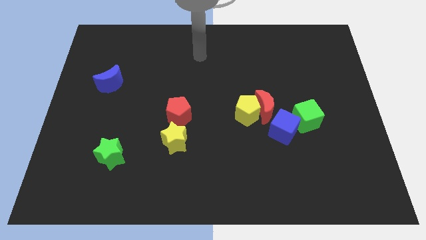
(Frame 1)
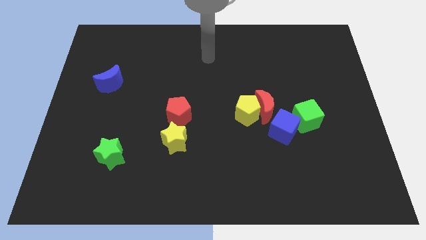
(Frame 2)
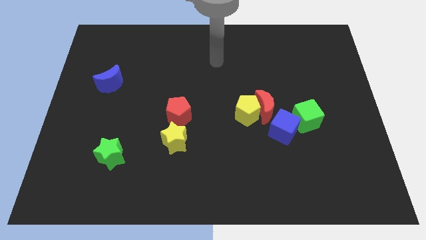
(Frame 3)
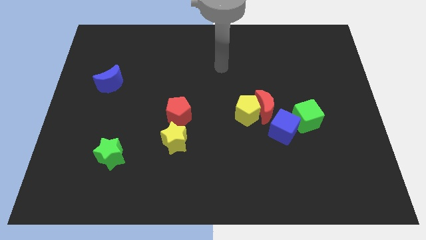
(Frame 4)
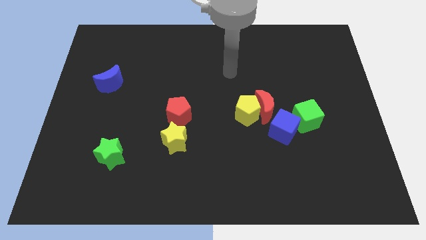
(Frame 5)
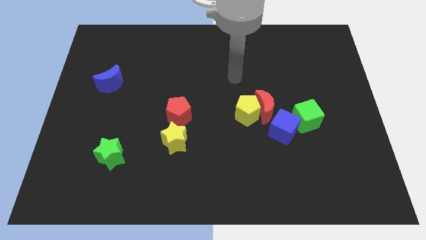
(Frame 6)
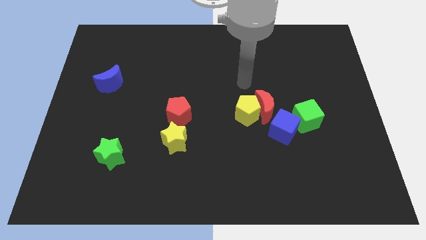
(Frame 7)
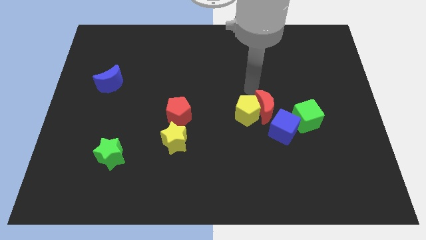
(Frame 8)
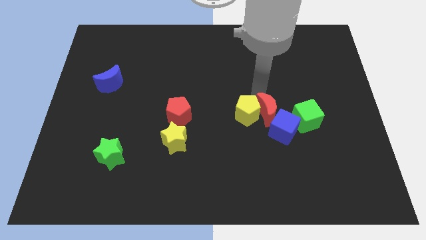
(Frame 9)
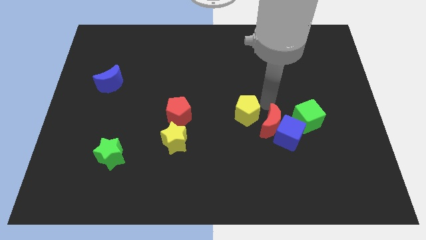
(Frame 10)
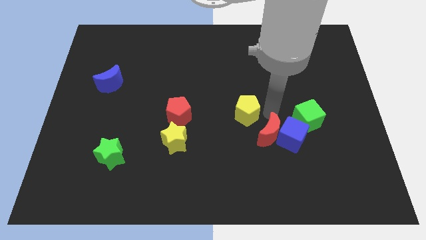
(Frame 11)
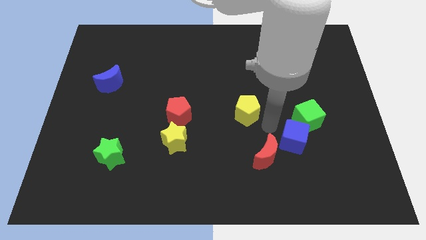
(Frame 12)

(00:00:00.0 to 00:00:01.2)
move the yellow pentagon away from the red moon and blue cube

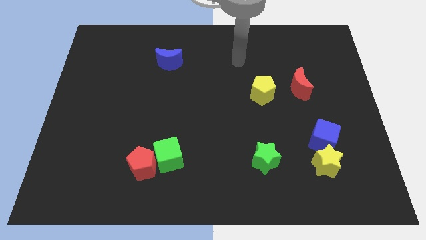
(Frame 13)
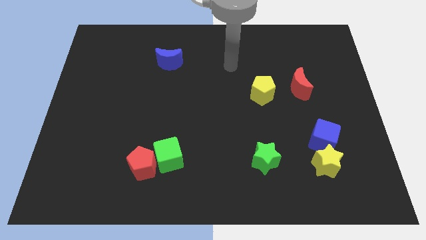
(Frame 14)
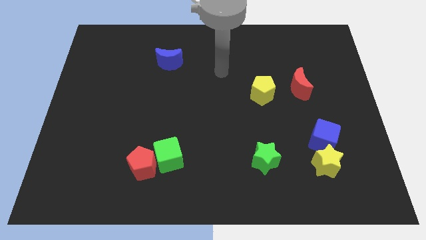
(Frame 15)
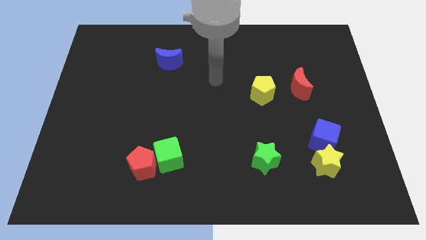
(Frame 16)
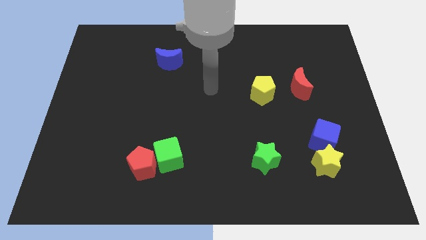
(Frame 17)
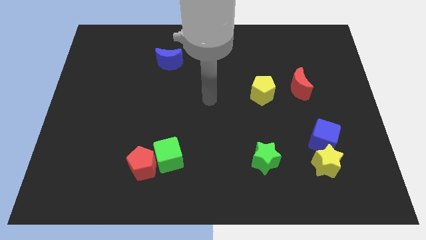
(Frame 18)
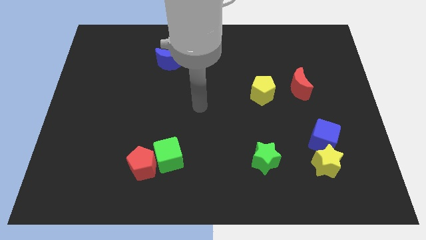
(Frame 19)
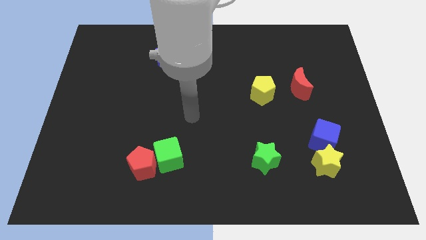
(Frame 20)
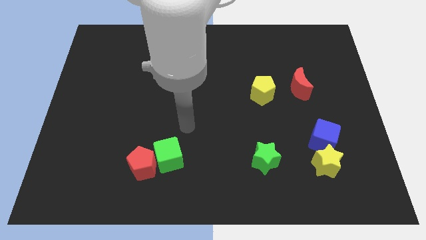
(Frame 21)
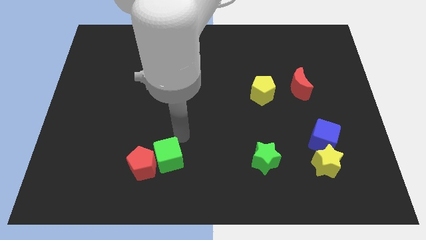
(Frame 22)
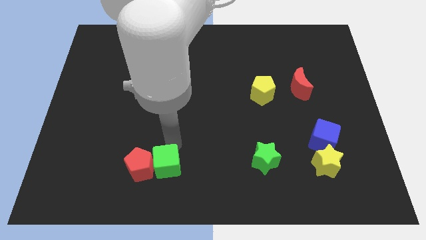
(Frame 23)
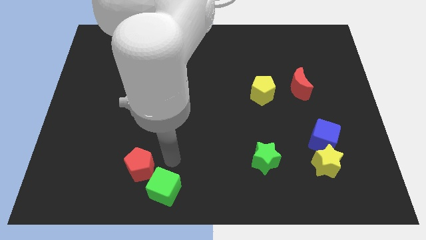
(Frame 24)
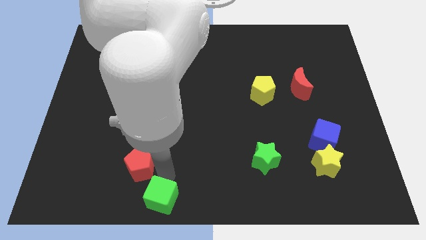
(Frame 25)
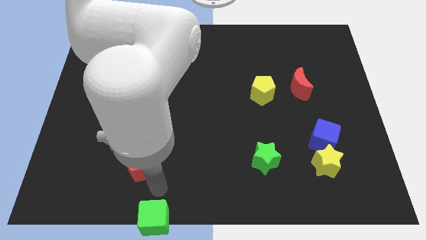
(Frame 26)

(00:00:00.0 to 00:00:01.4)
move the red pentagon away from the green cube

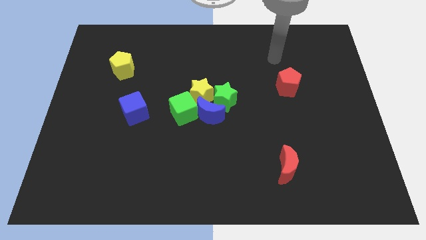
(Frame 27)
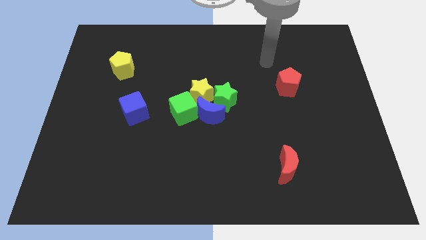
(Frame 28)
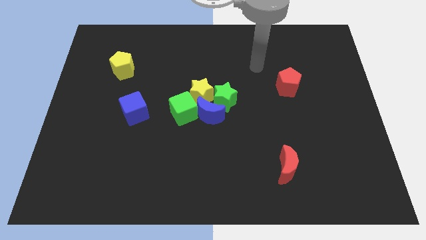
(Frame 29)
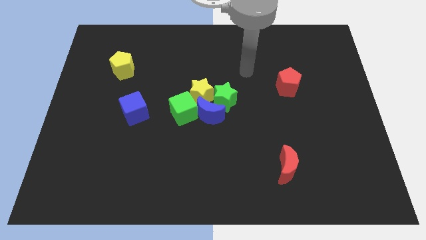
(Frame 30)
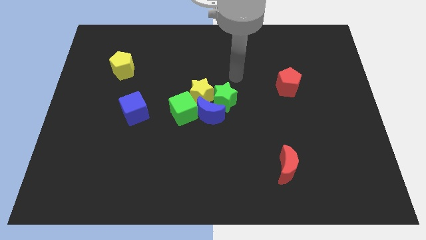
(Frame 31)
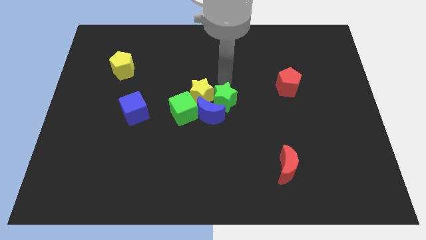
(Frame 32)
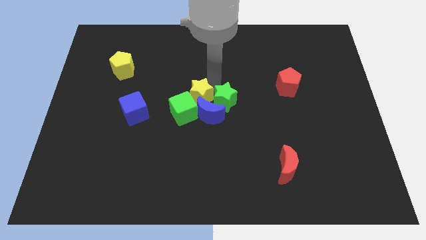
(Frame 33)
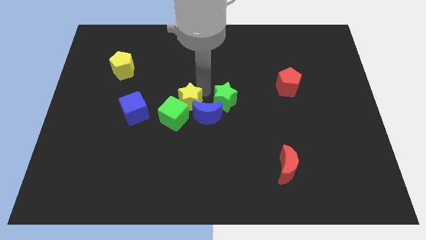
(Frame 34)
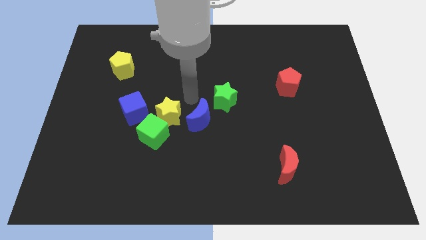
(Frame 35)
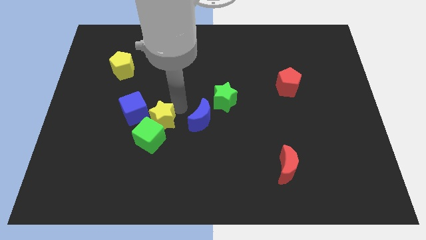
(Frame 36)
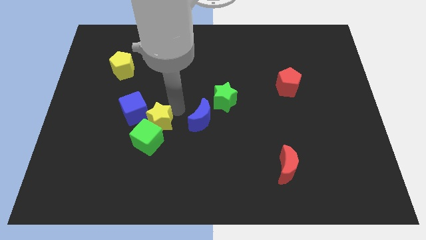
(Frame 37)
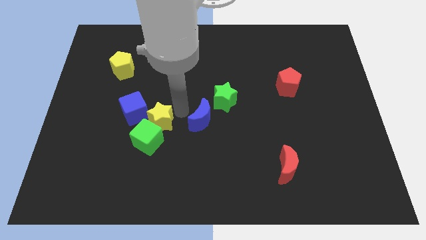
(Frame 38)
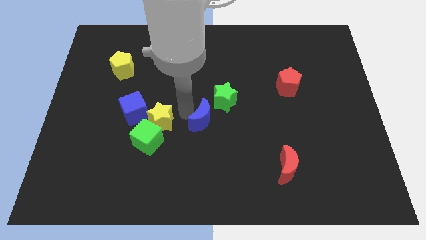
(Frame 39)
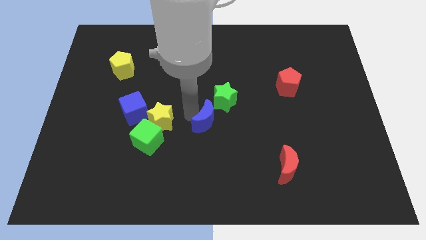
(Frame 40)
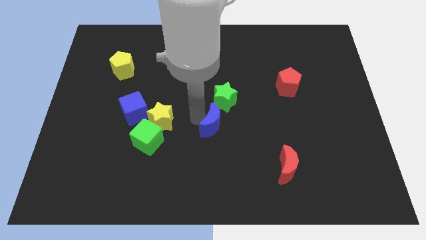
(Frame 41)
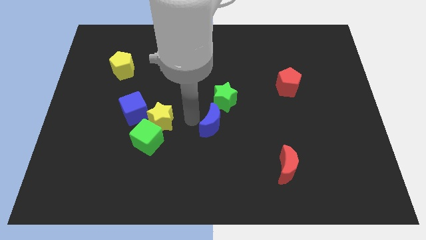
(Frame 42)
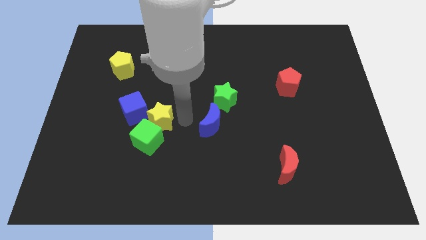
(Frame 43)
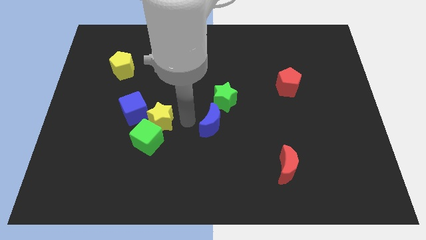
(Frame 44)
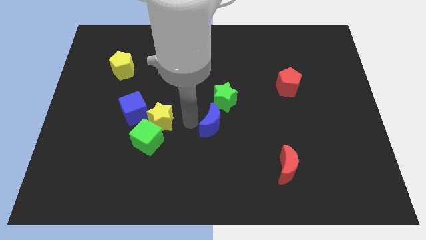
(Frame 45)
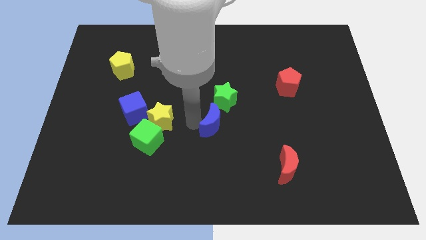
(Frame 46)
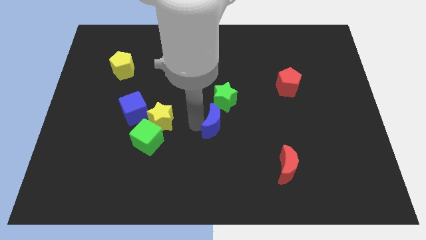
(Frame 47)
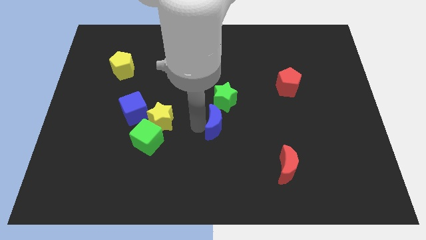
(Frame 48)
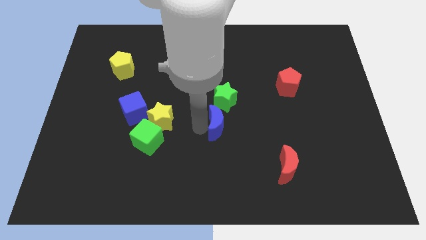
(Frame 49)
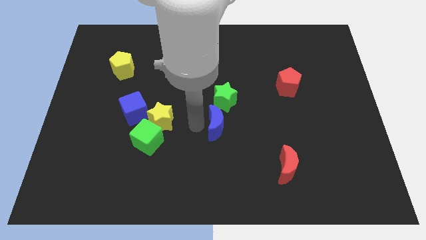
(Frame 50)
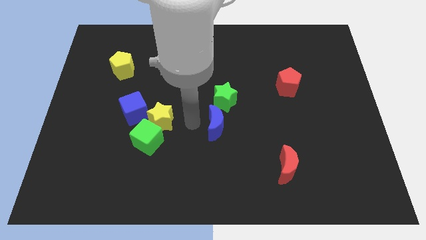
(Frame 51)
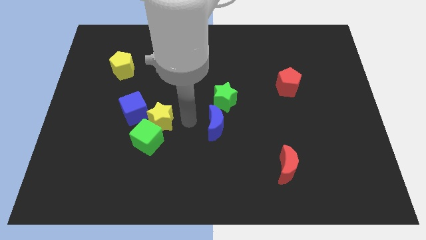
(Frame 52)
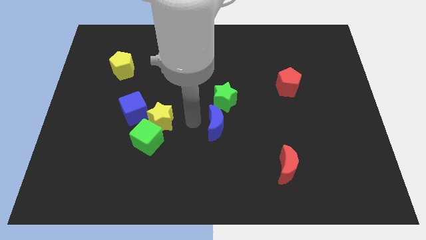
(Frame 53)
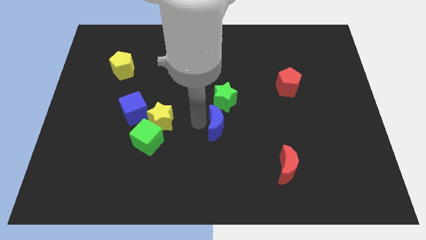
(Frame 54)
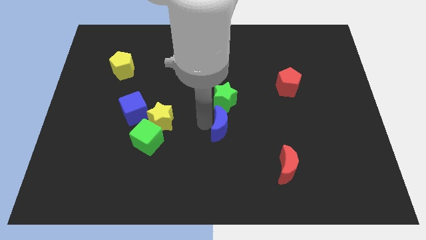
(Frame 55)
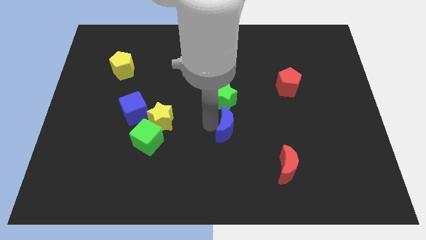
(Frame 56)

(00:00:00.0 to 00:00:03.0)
separate the blue moon from the group

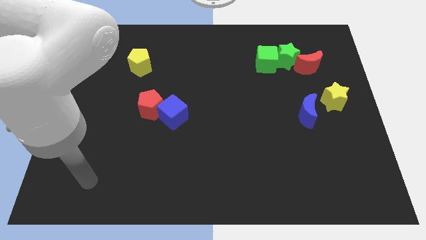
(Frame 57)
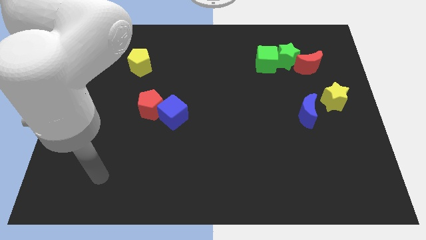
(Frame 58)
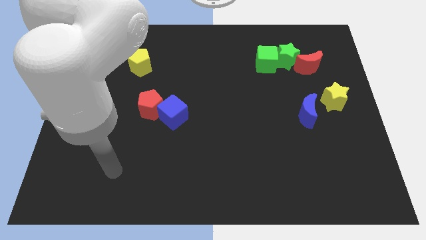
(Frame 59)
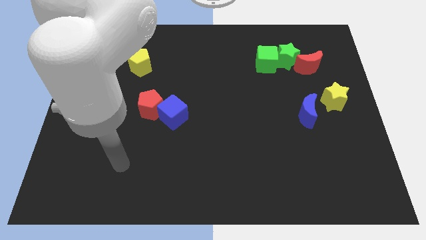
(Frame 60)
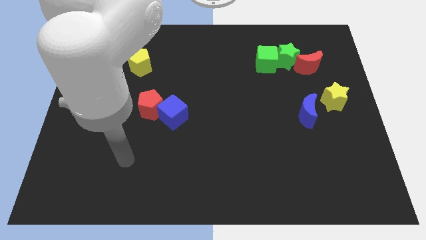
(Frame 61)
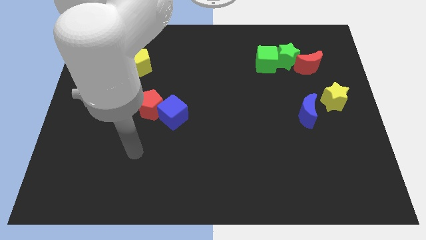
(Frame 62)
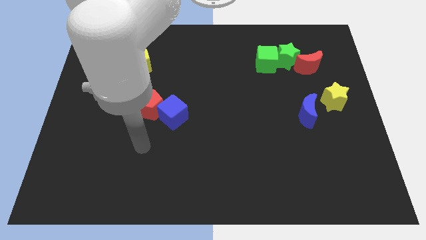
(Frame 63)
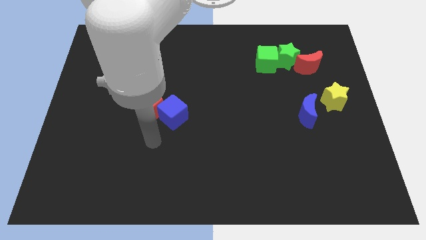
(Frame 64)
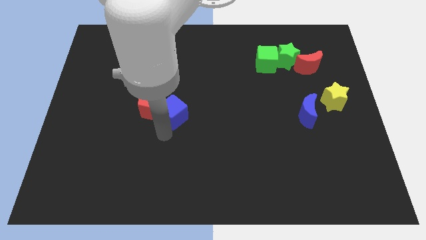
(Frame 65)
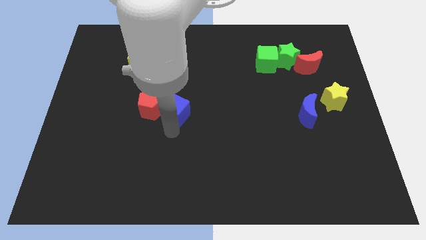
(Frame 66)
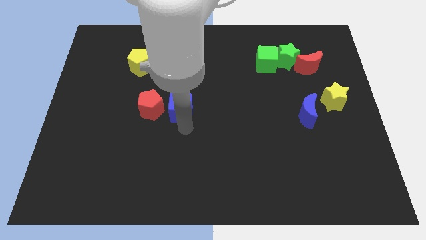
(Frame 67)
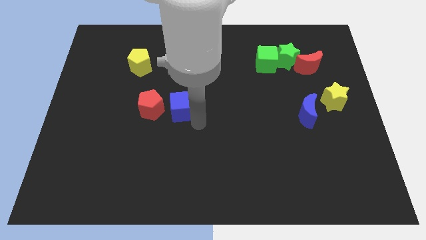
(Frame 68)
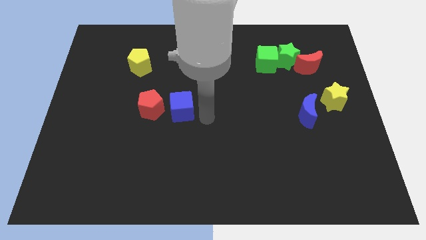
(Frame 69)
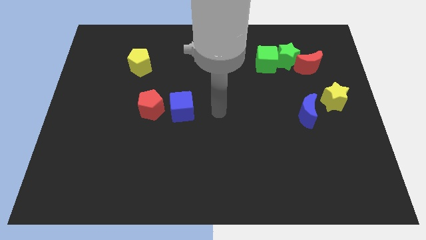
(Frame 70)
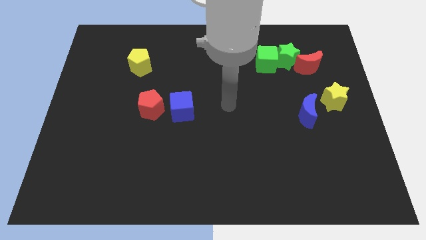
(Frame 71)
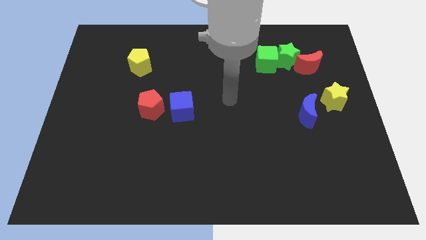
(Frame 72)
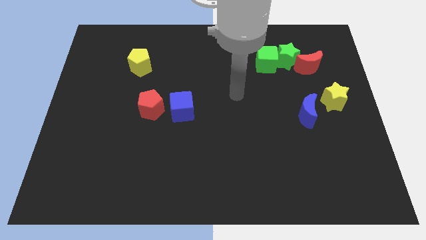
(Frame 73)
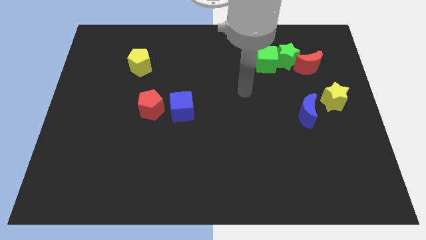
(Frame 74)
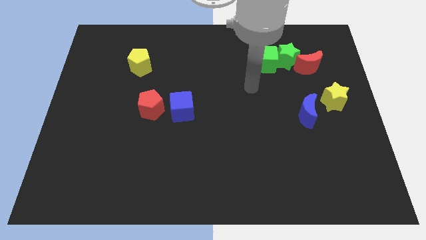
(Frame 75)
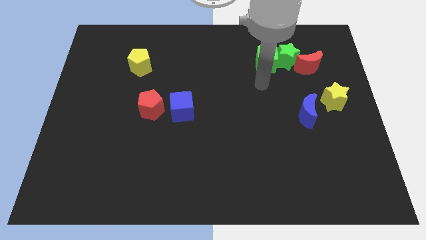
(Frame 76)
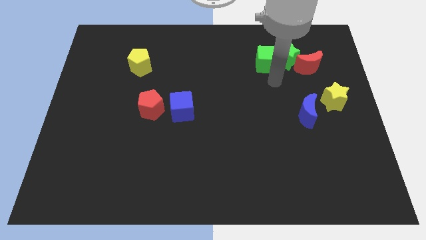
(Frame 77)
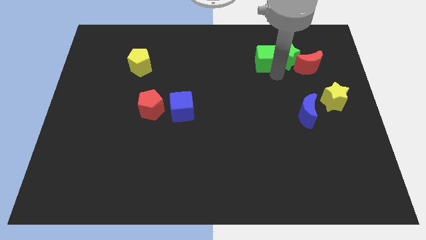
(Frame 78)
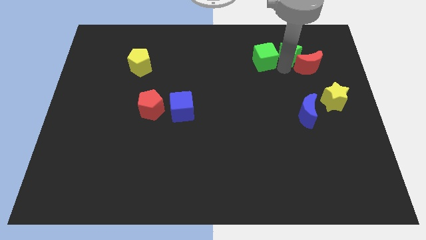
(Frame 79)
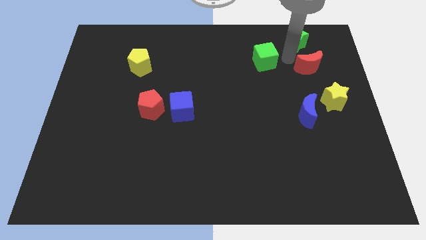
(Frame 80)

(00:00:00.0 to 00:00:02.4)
separate the green cube from the green star

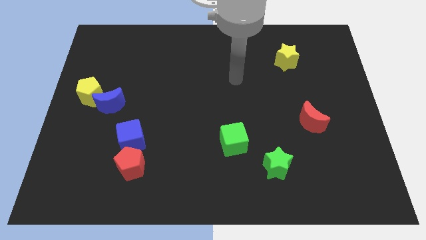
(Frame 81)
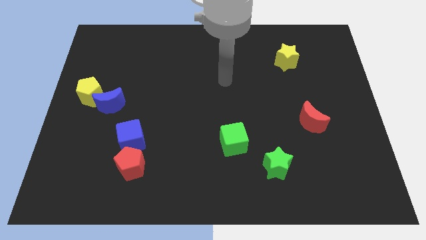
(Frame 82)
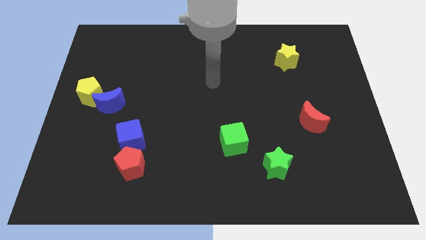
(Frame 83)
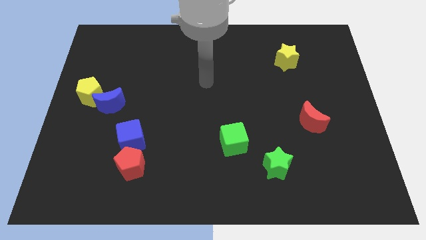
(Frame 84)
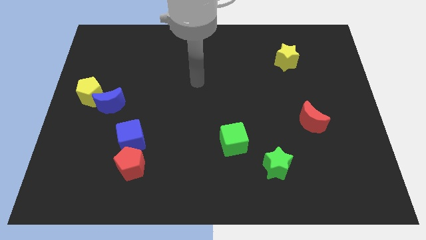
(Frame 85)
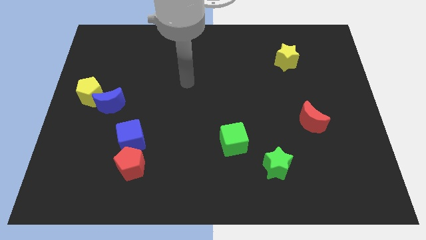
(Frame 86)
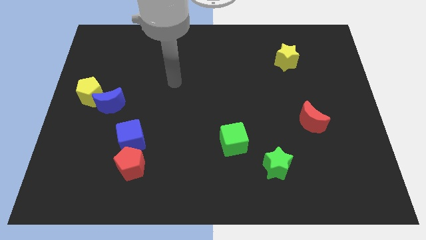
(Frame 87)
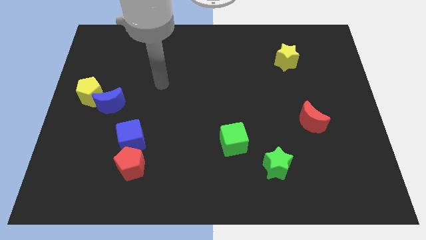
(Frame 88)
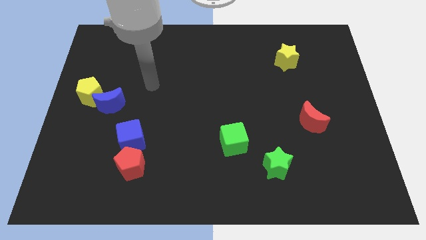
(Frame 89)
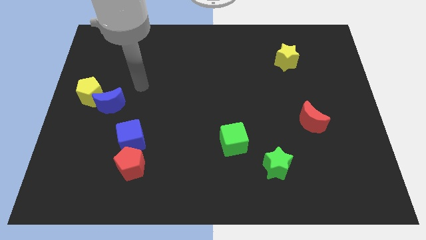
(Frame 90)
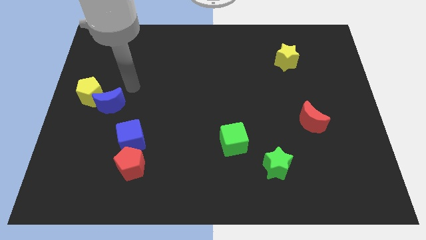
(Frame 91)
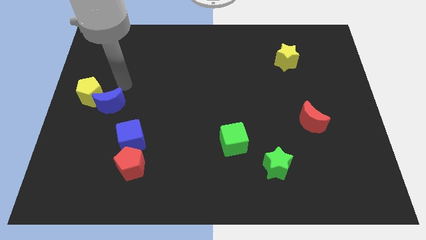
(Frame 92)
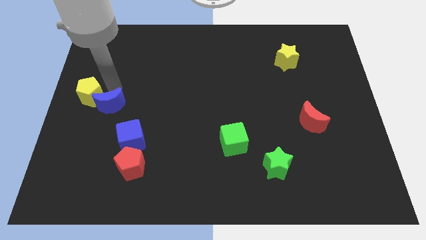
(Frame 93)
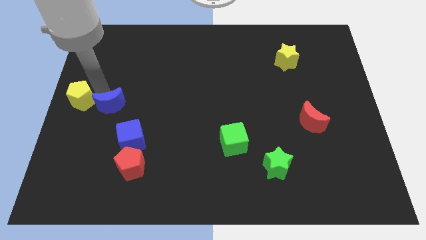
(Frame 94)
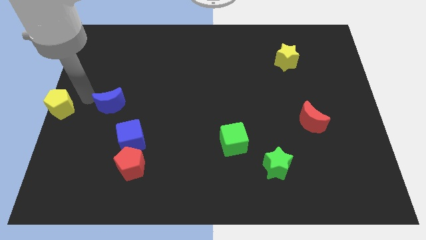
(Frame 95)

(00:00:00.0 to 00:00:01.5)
pull the blue moon apart from the yellow pentagon

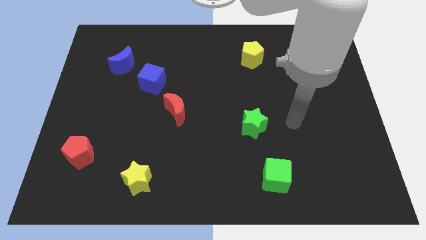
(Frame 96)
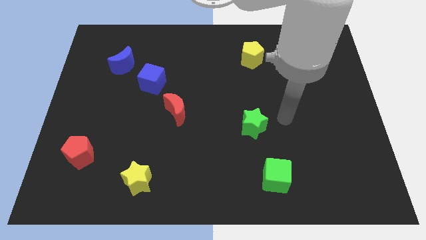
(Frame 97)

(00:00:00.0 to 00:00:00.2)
move the blue moon away from the blue cube
